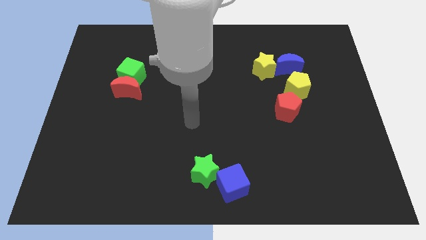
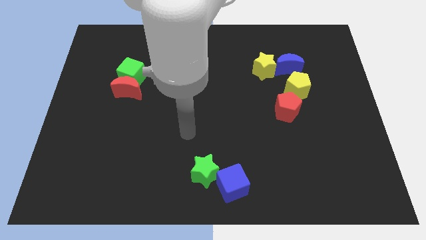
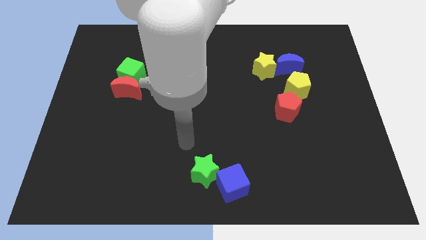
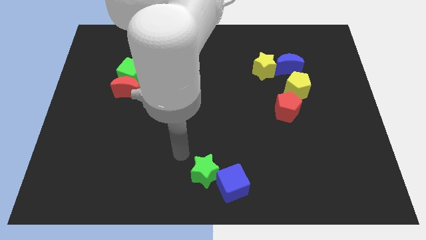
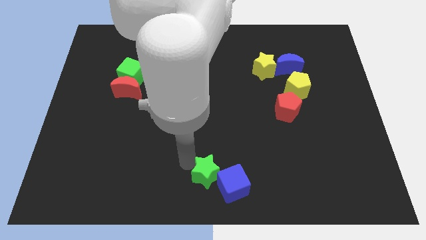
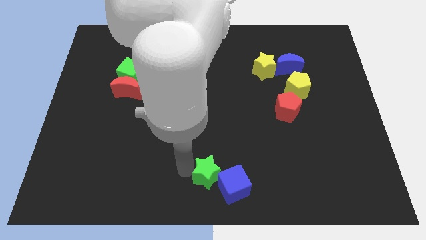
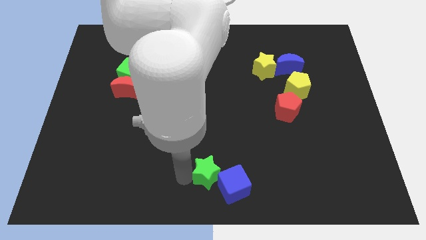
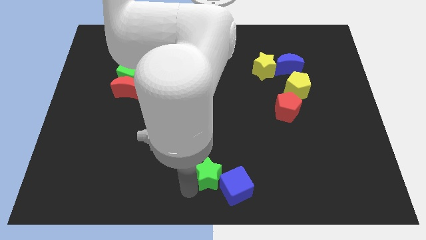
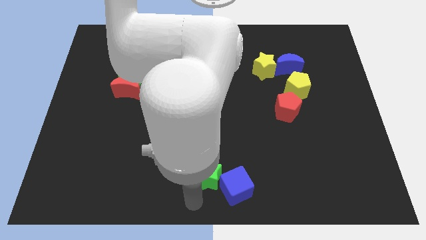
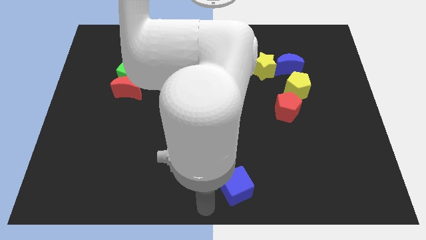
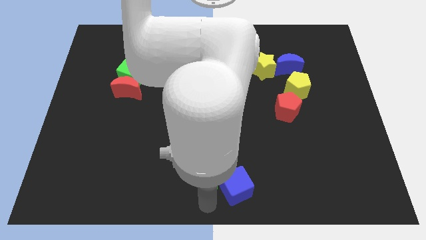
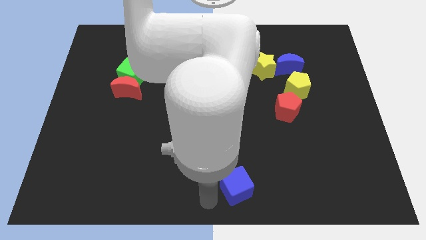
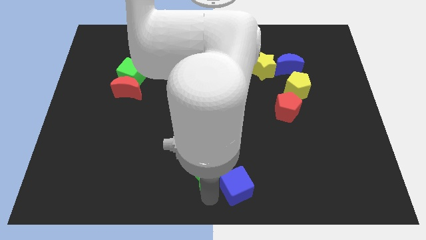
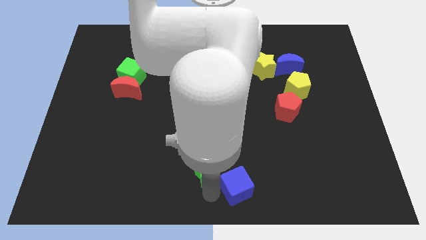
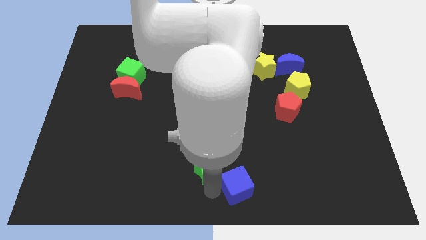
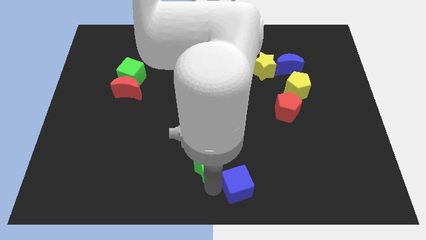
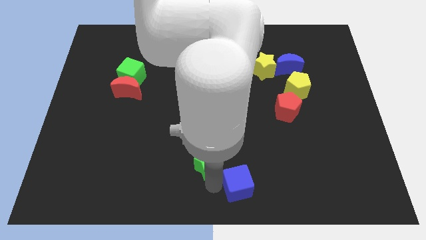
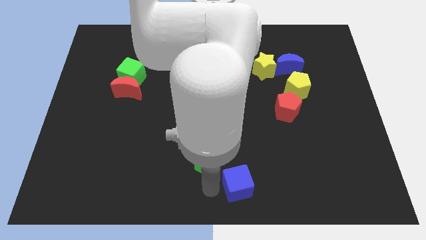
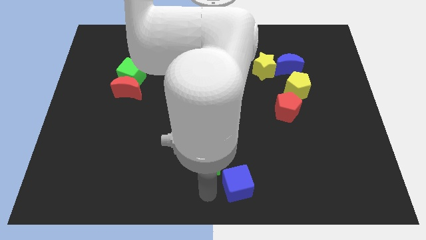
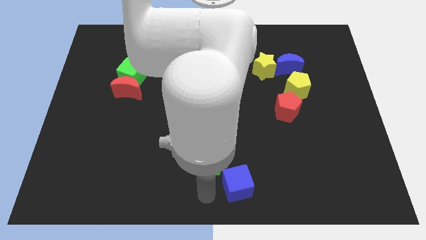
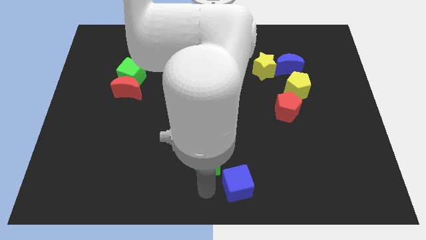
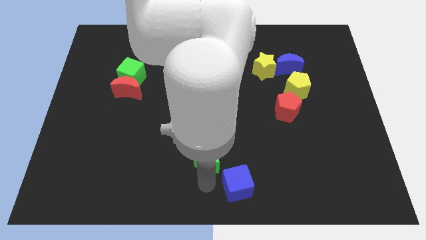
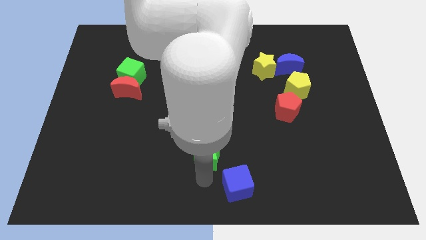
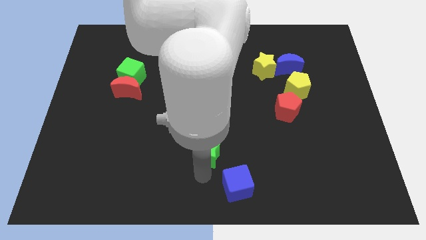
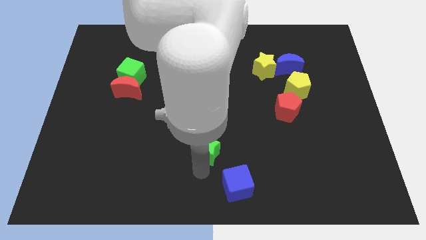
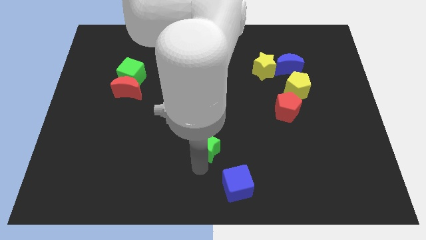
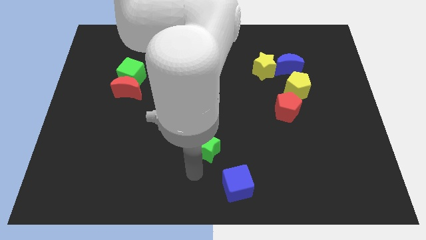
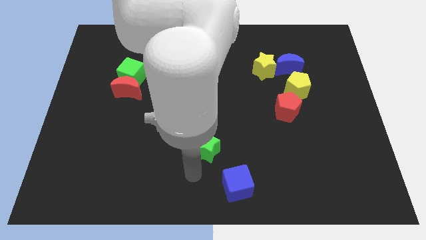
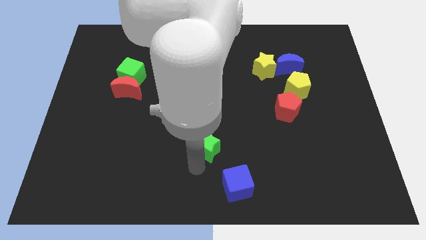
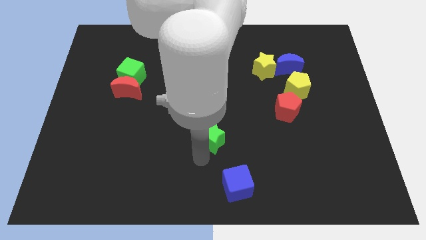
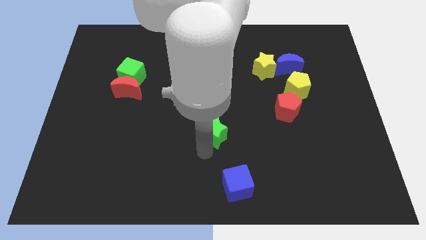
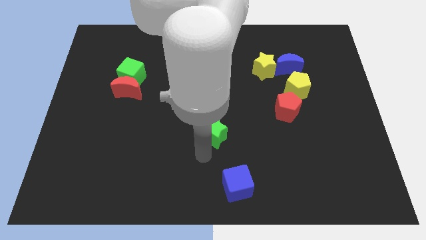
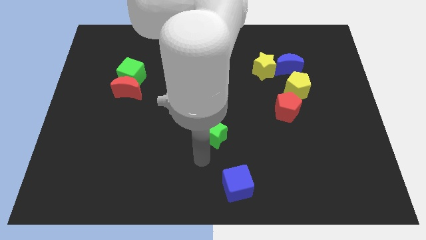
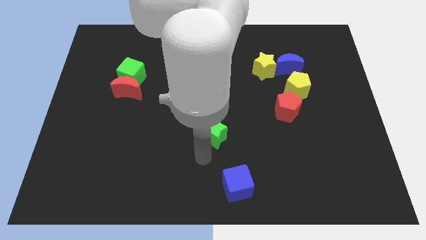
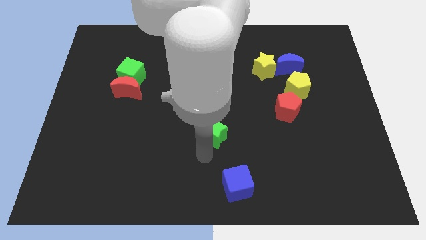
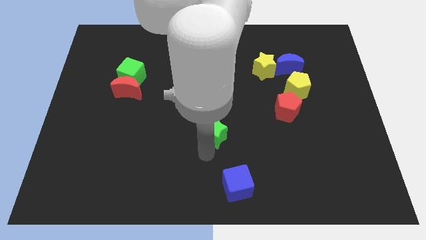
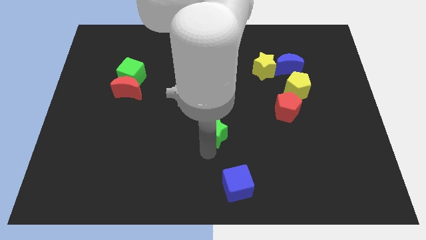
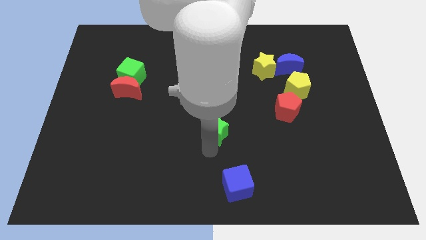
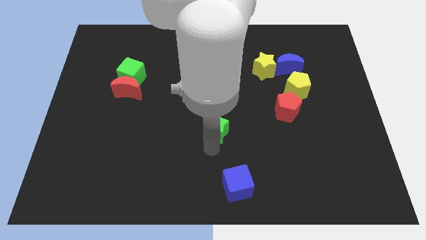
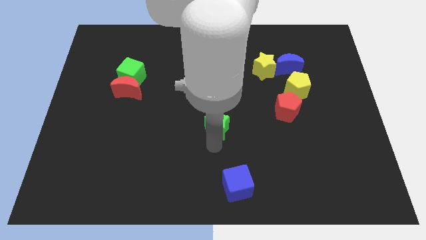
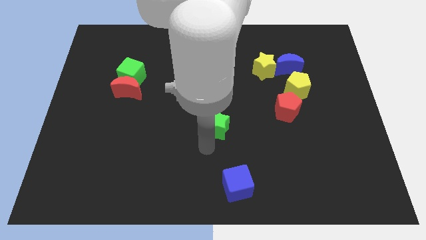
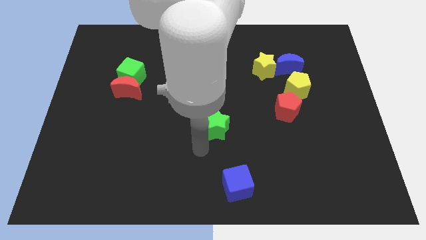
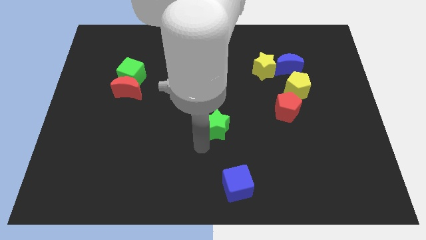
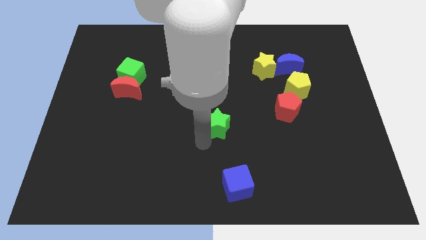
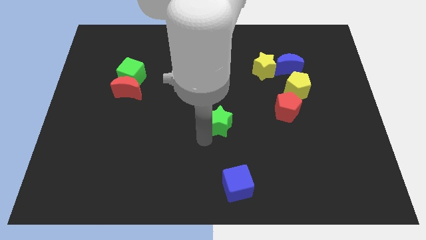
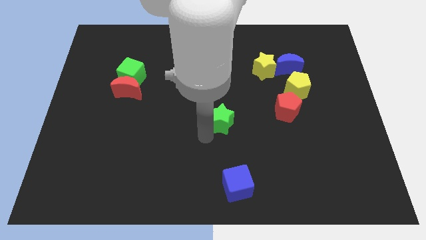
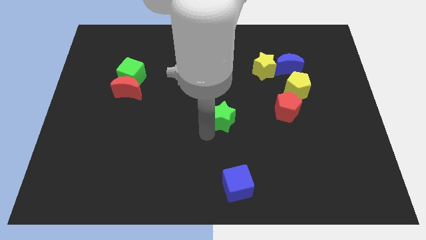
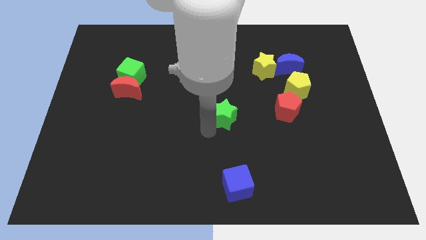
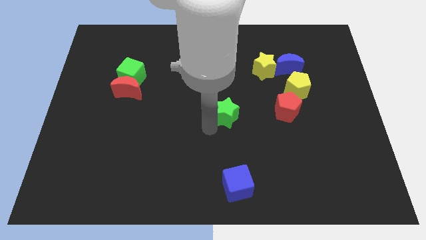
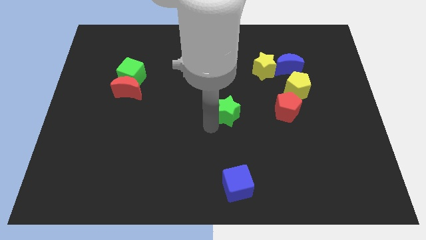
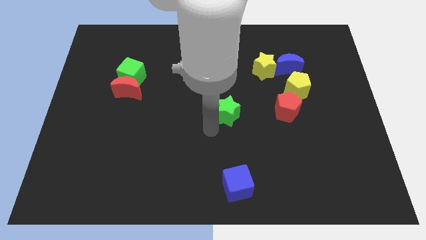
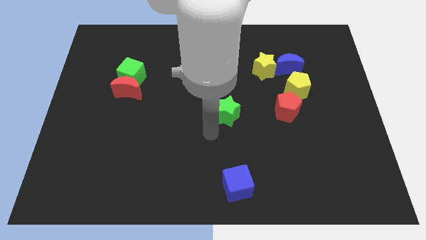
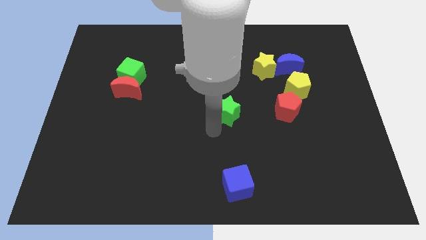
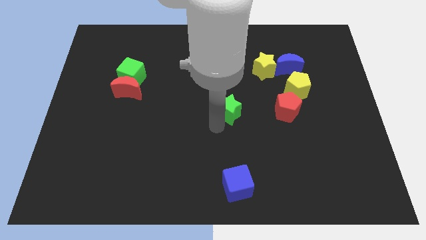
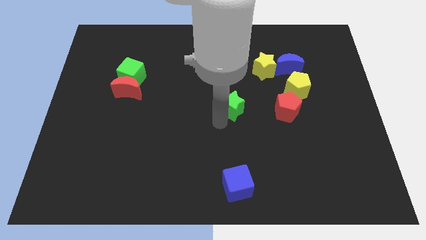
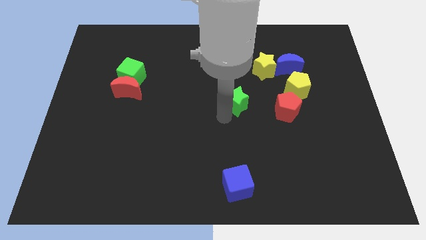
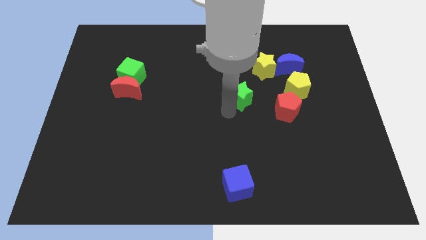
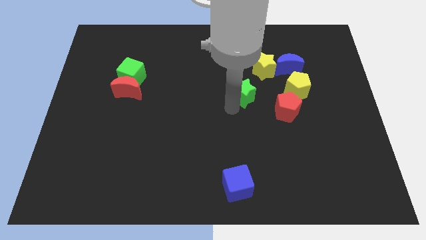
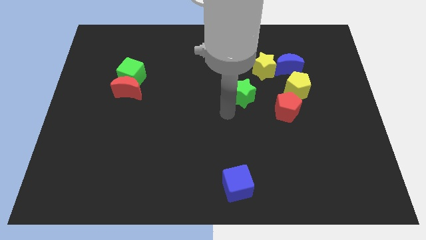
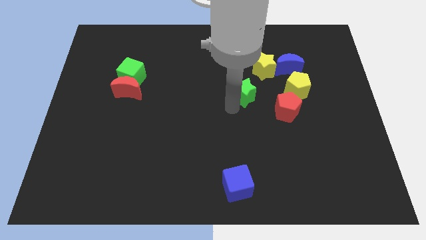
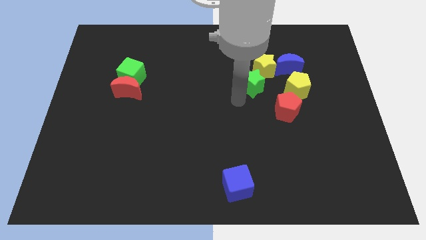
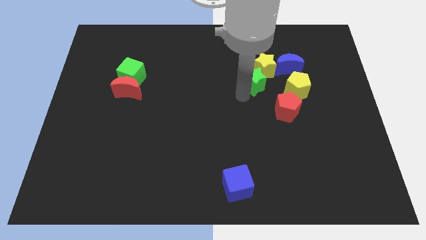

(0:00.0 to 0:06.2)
put the green star to the yellow star

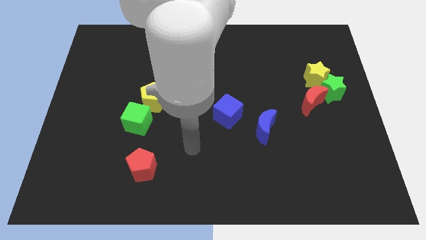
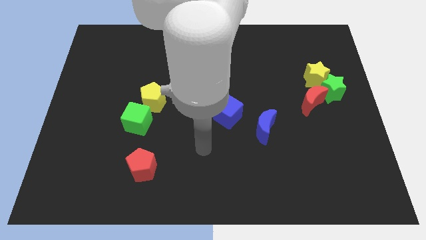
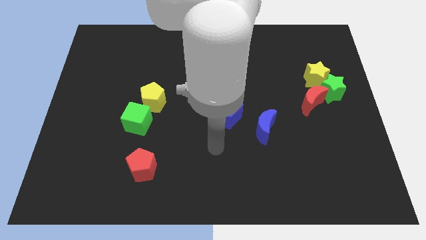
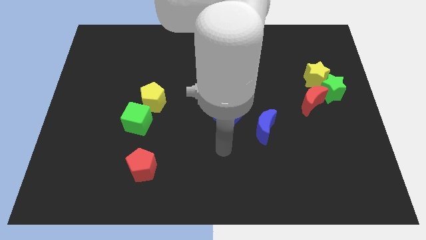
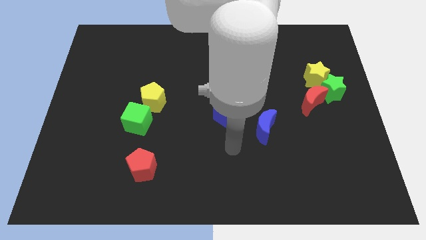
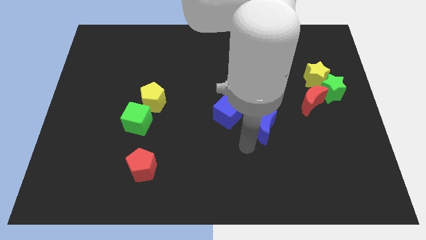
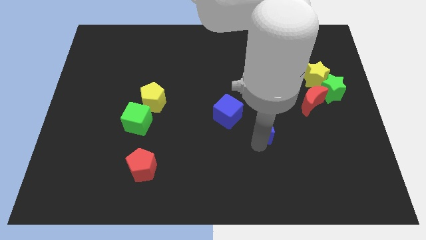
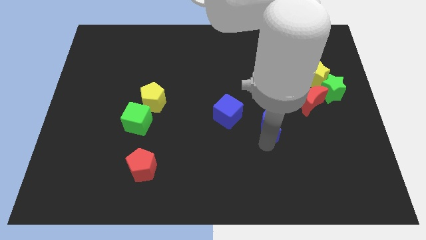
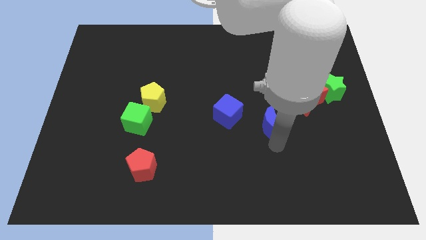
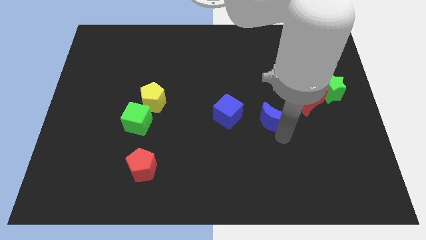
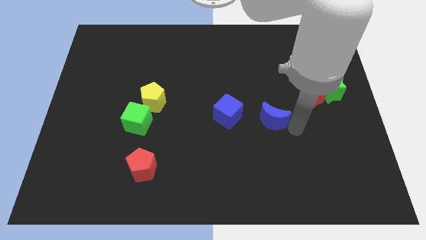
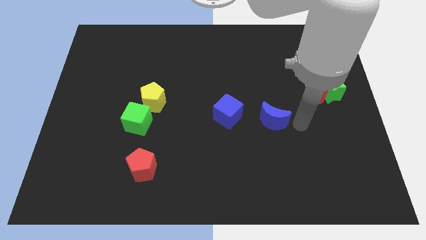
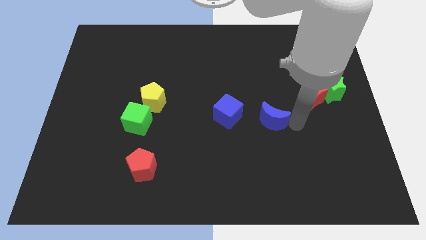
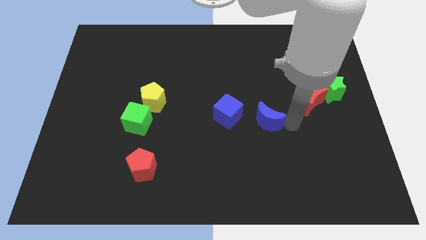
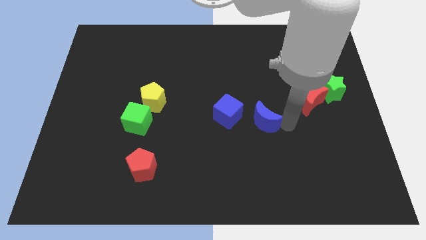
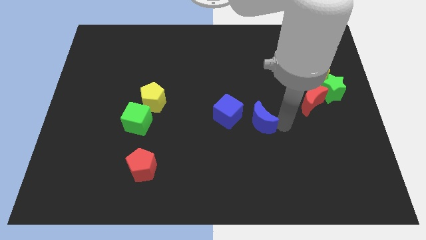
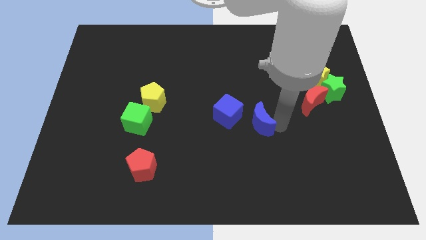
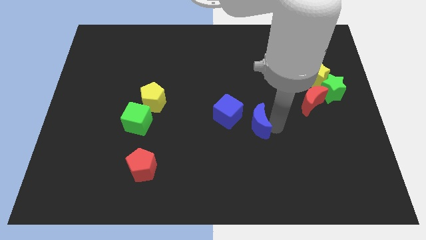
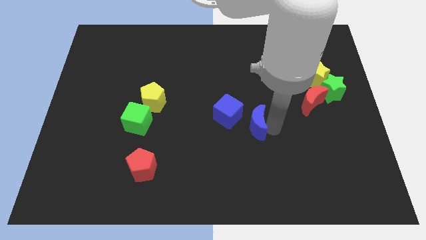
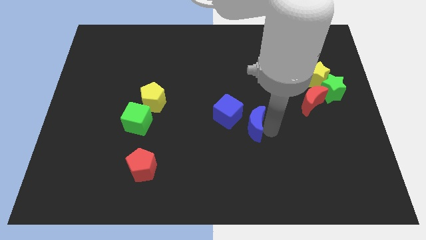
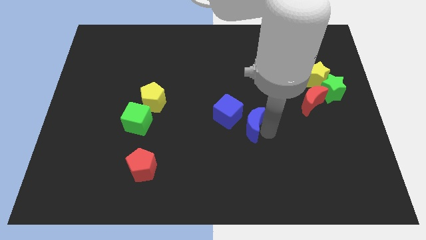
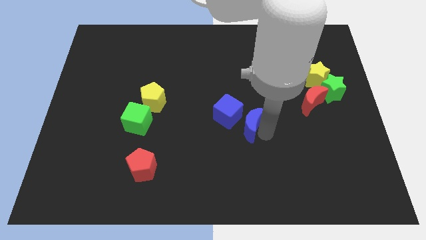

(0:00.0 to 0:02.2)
push the blue moon to the blue cube

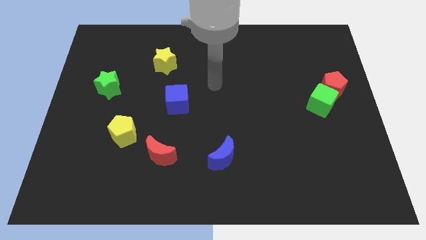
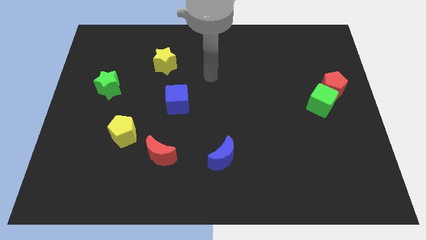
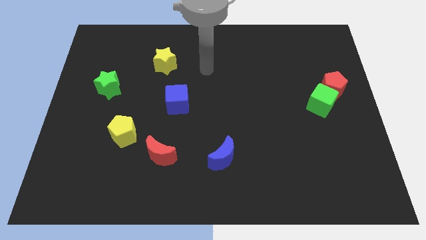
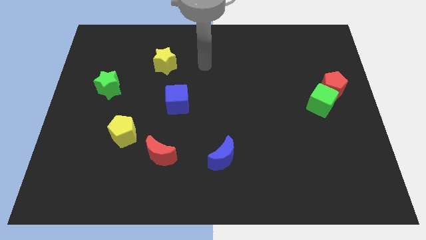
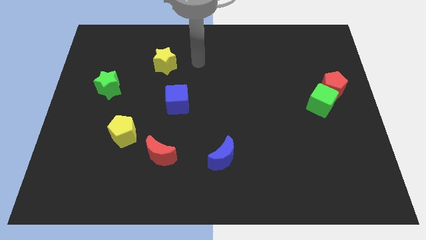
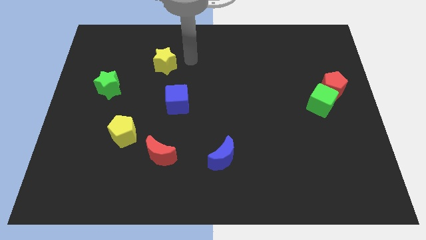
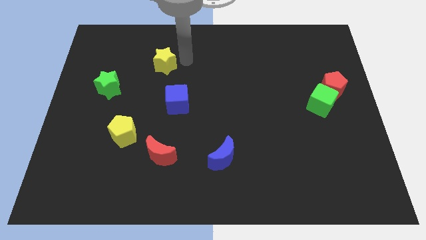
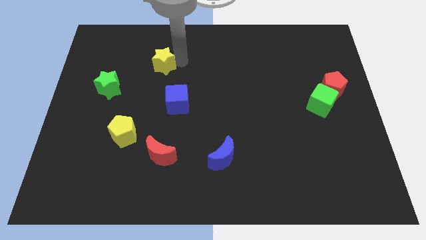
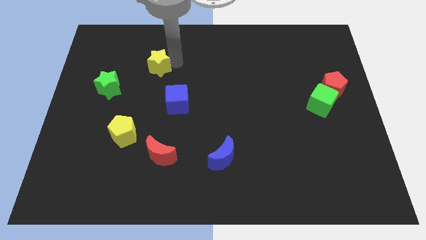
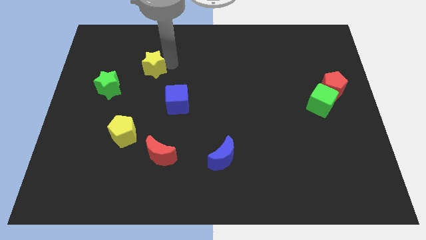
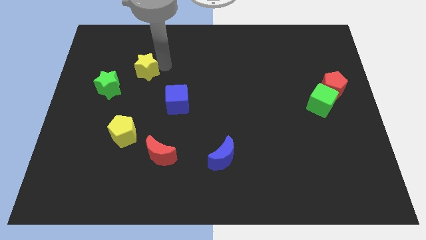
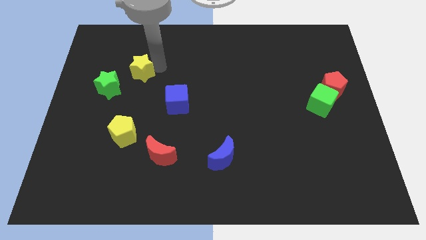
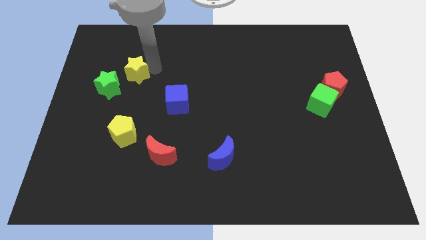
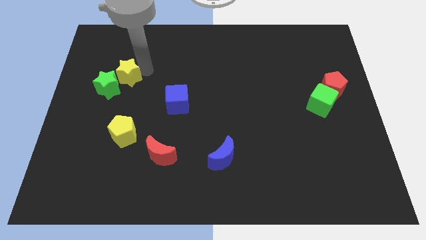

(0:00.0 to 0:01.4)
put the yellow star next to the green star
